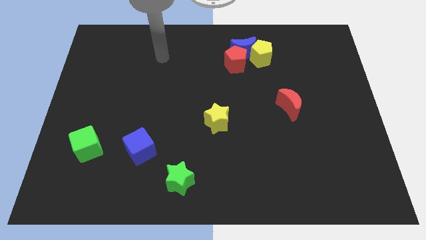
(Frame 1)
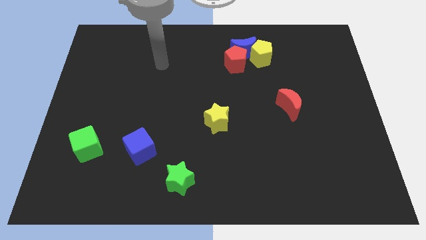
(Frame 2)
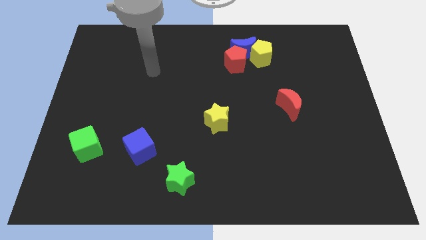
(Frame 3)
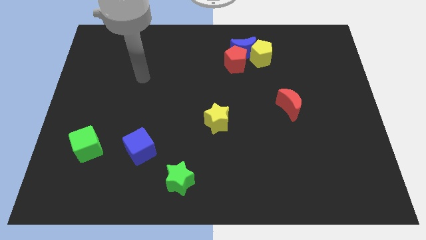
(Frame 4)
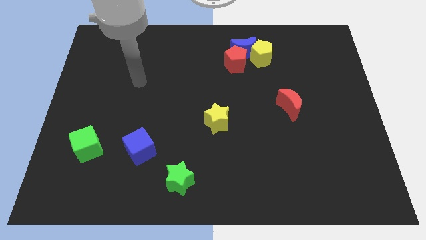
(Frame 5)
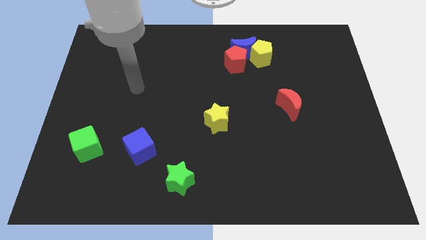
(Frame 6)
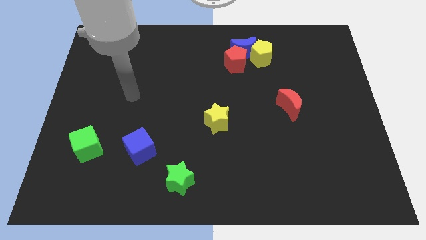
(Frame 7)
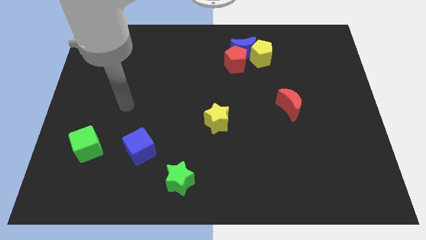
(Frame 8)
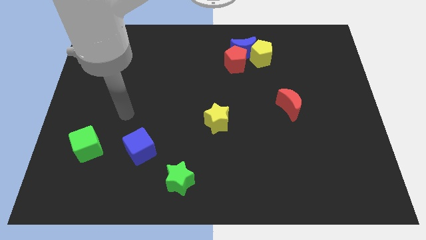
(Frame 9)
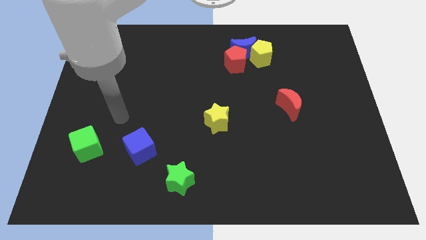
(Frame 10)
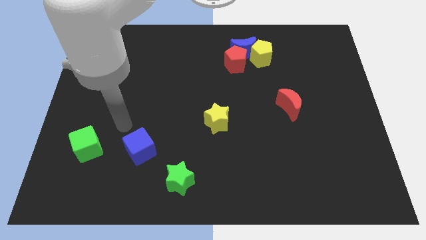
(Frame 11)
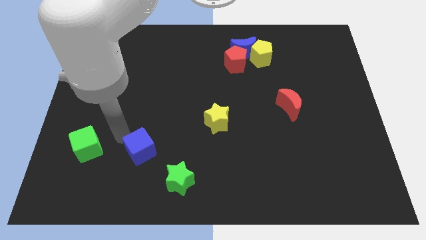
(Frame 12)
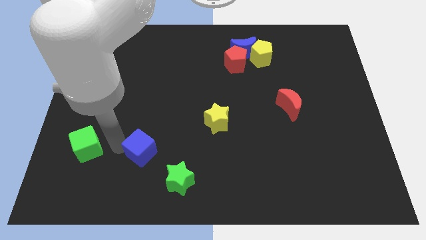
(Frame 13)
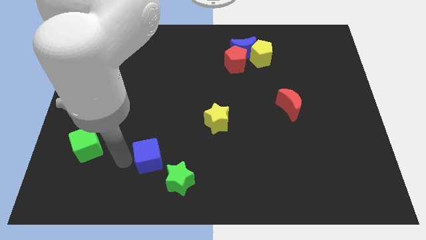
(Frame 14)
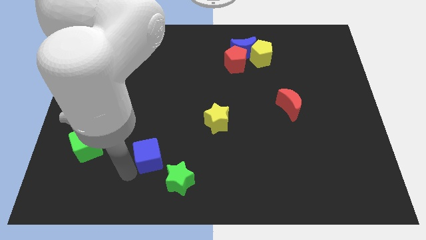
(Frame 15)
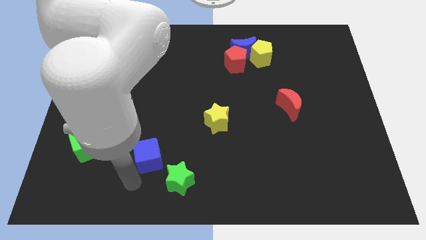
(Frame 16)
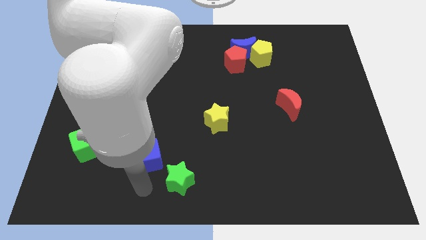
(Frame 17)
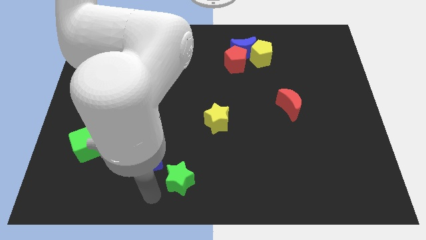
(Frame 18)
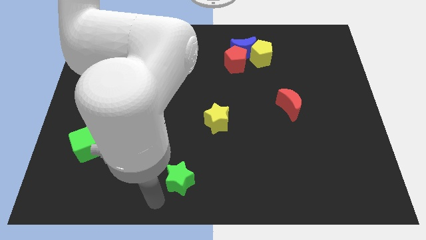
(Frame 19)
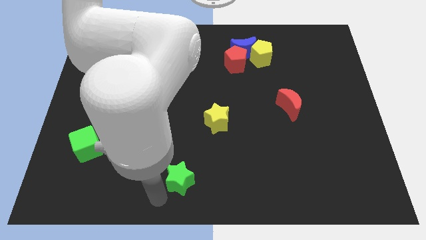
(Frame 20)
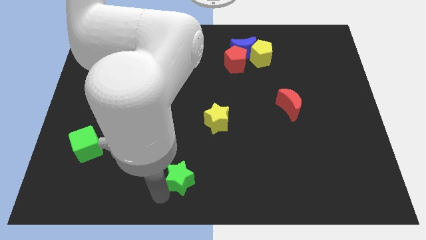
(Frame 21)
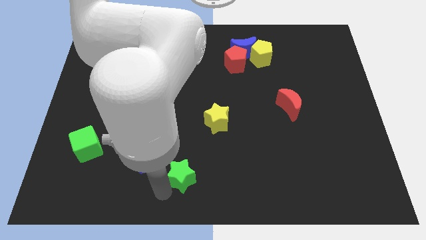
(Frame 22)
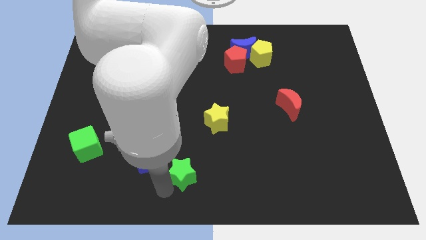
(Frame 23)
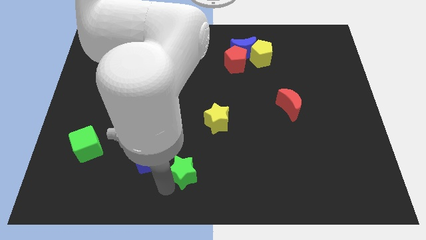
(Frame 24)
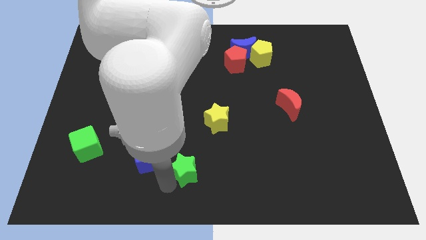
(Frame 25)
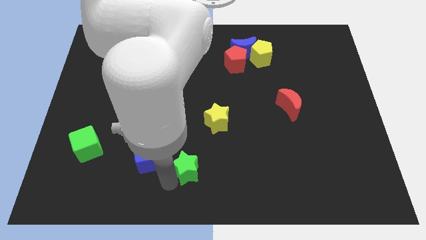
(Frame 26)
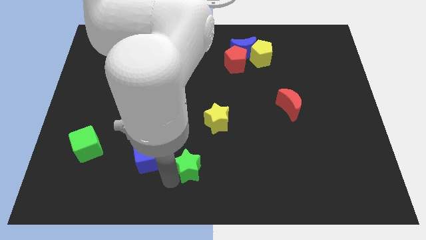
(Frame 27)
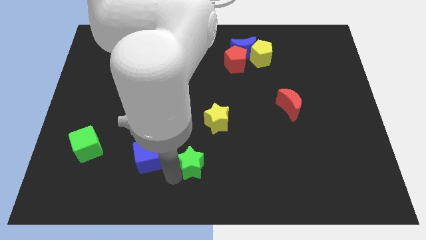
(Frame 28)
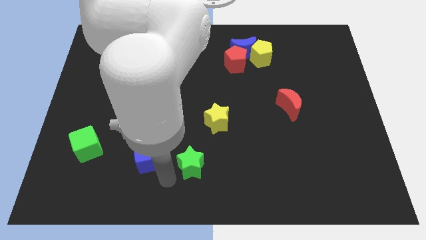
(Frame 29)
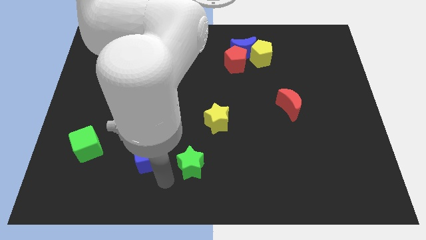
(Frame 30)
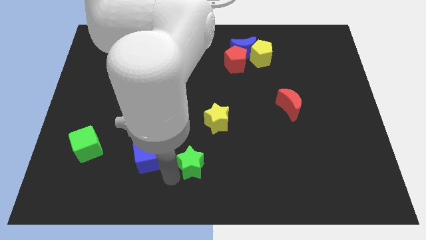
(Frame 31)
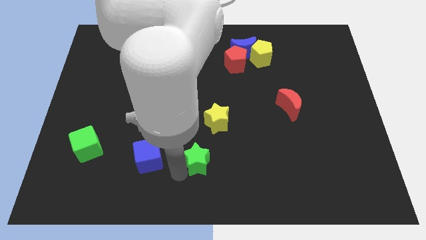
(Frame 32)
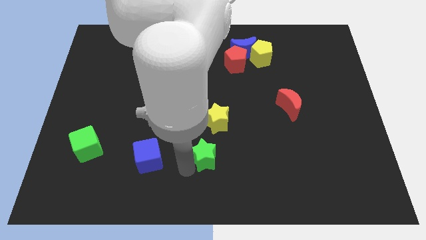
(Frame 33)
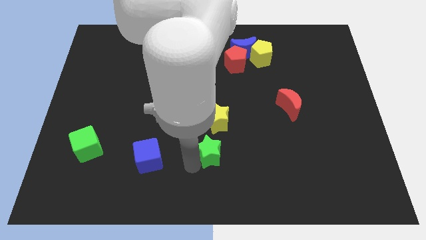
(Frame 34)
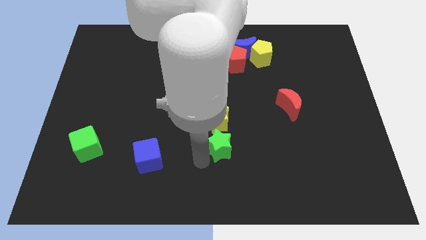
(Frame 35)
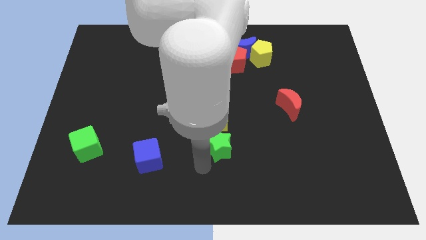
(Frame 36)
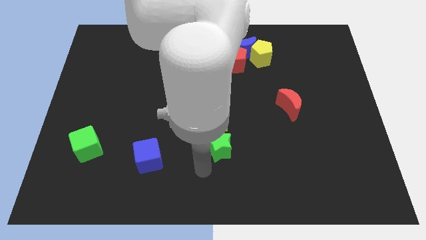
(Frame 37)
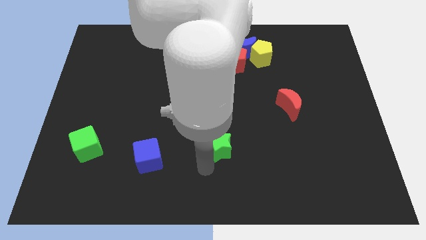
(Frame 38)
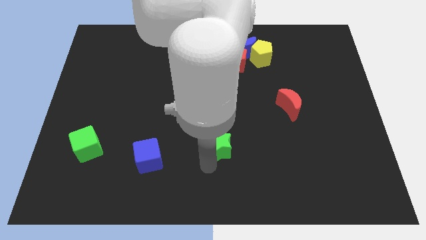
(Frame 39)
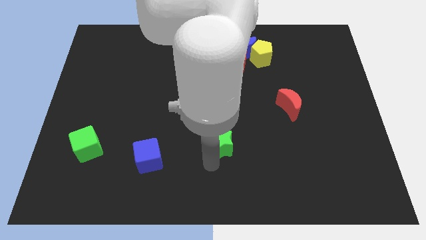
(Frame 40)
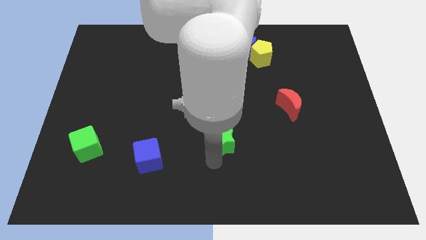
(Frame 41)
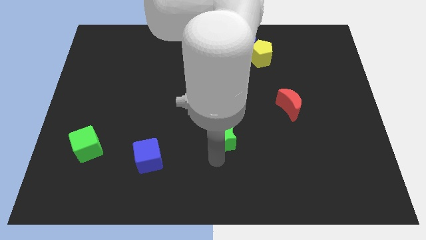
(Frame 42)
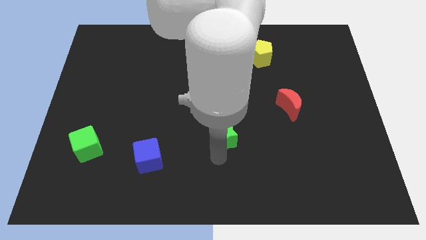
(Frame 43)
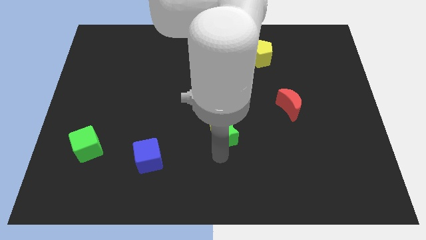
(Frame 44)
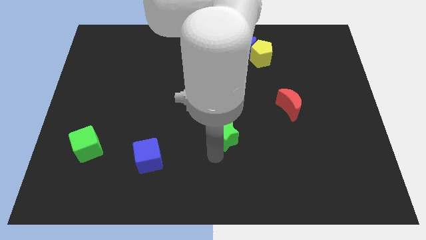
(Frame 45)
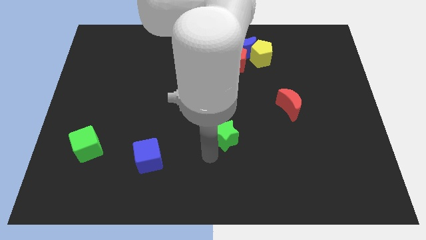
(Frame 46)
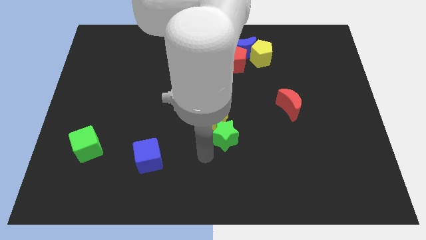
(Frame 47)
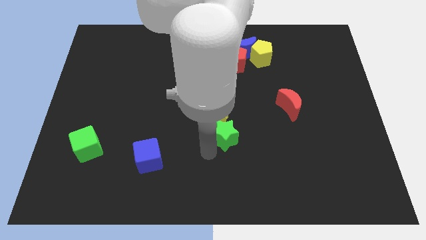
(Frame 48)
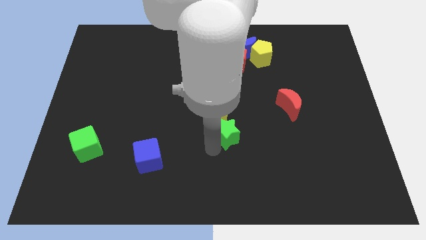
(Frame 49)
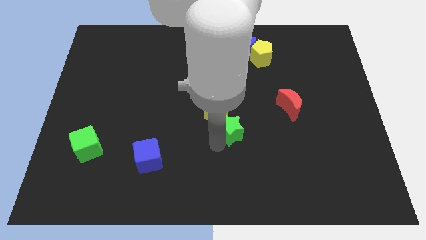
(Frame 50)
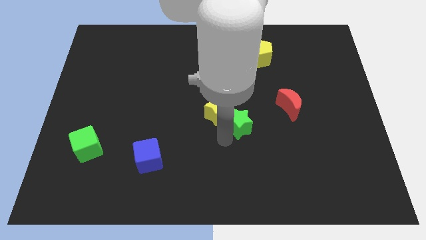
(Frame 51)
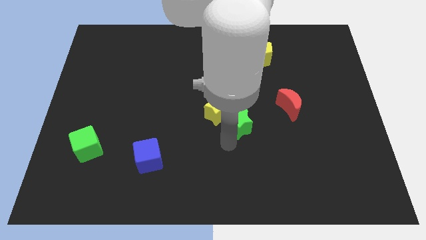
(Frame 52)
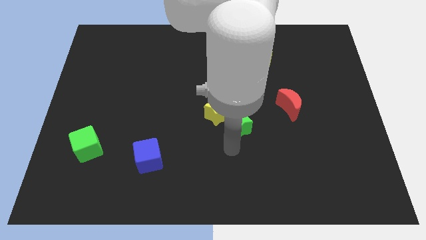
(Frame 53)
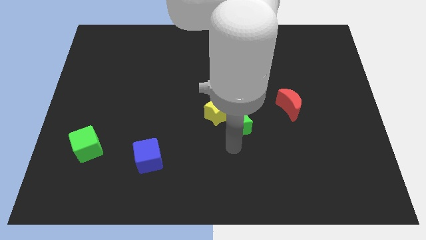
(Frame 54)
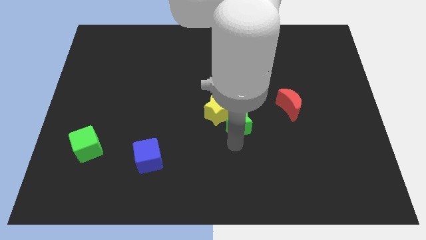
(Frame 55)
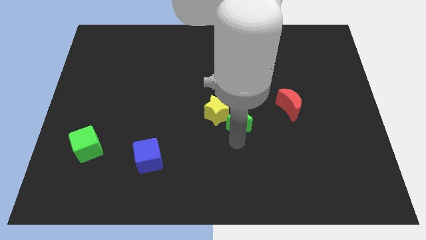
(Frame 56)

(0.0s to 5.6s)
push the green star to the left of the red moon
